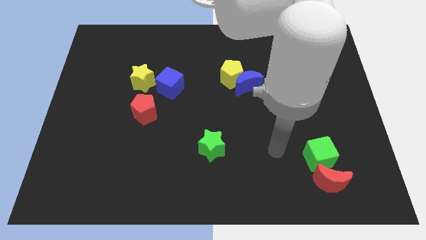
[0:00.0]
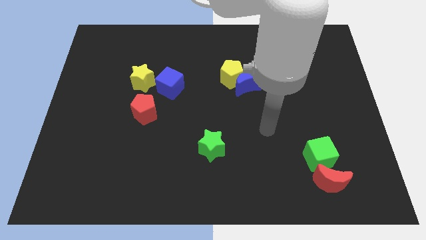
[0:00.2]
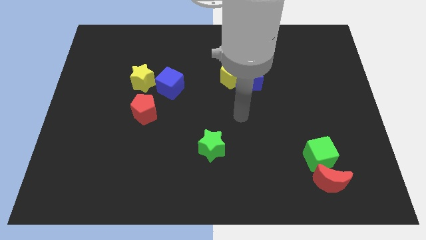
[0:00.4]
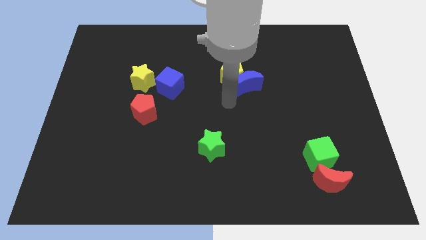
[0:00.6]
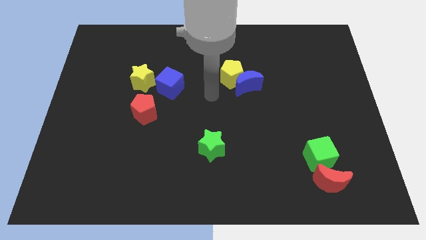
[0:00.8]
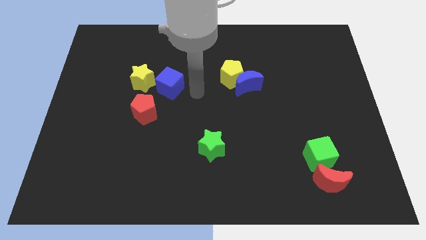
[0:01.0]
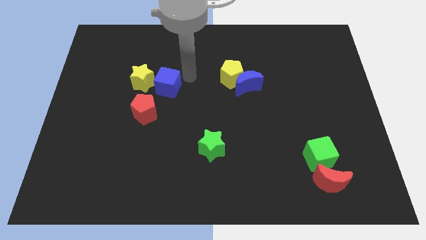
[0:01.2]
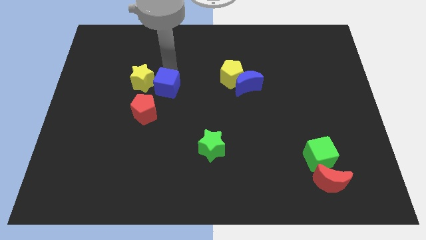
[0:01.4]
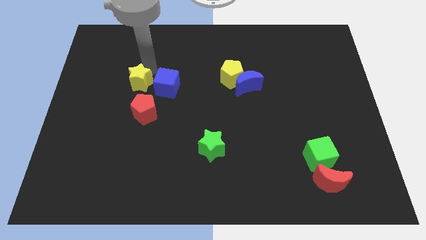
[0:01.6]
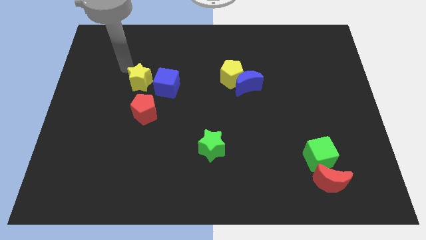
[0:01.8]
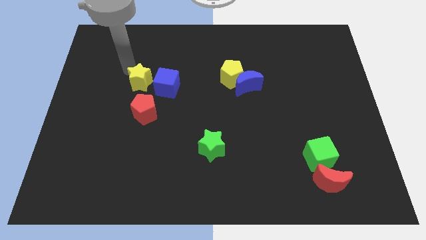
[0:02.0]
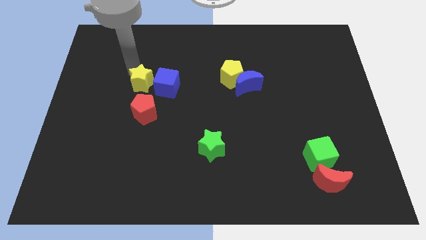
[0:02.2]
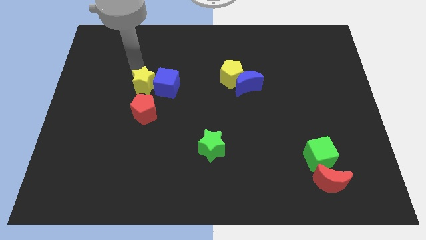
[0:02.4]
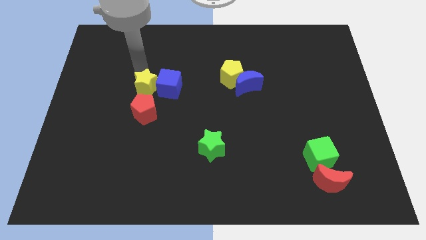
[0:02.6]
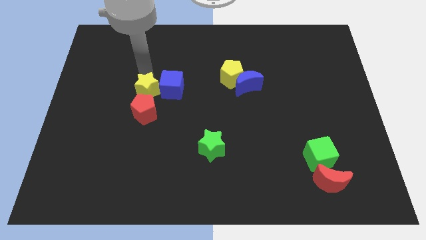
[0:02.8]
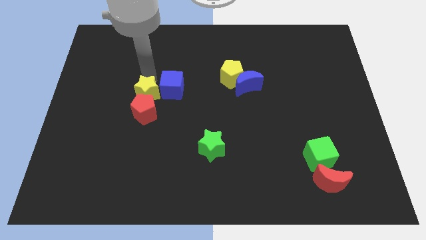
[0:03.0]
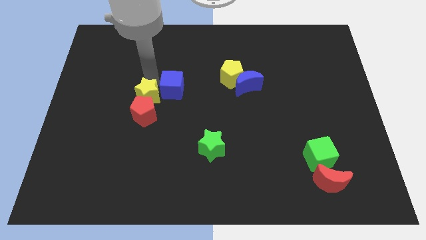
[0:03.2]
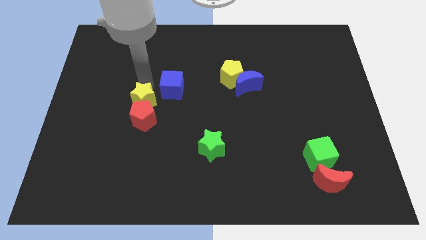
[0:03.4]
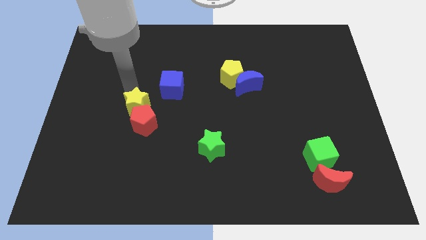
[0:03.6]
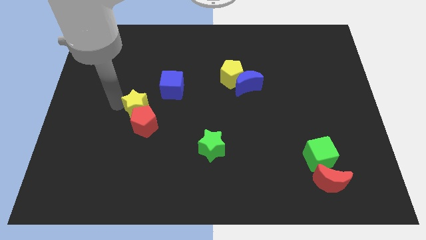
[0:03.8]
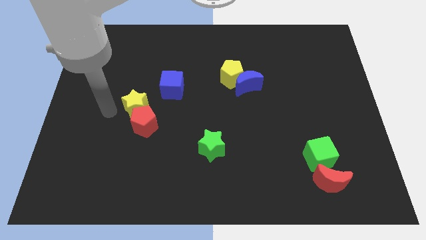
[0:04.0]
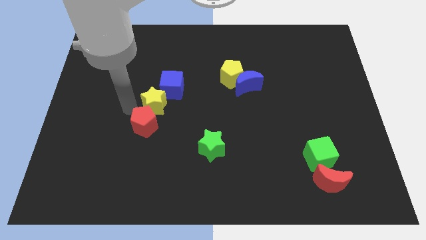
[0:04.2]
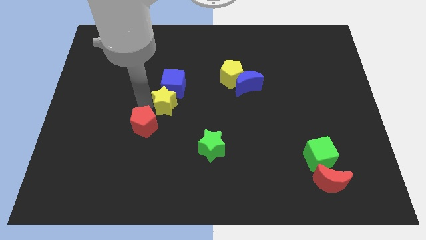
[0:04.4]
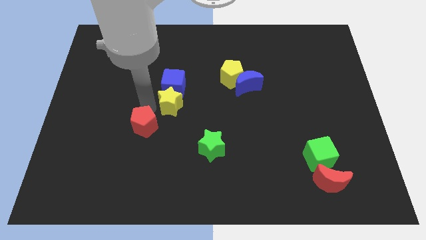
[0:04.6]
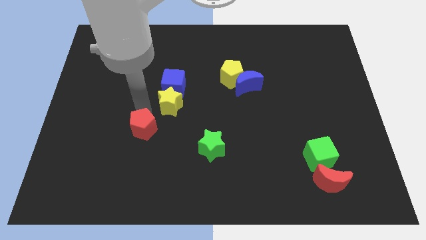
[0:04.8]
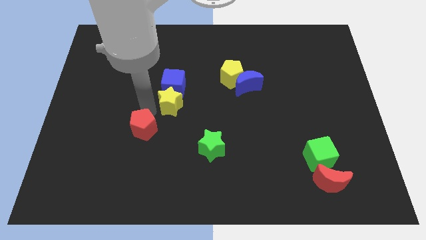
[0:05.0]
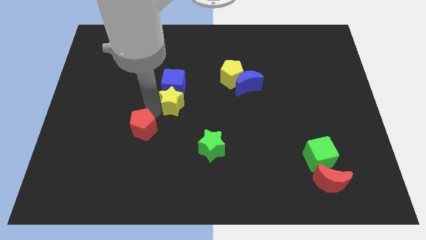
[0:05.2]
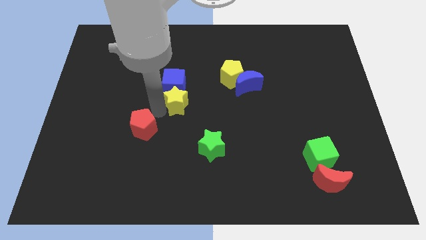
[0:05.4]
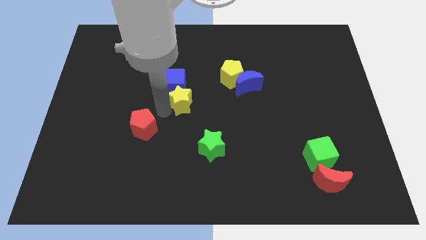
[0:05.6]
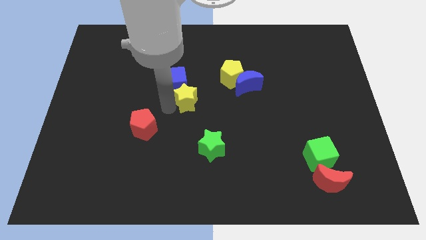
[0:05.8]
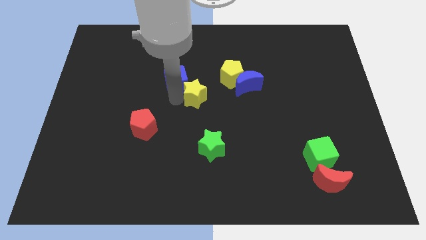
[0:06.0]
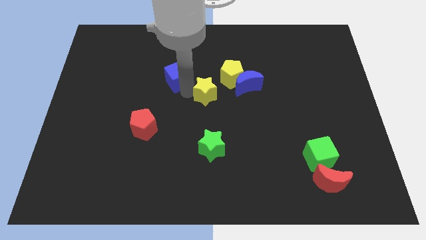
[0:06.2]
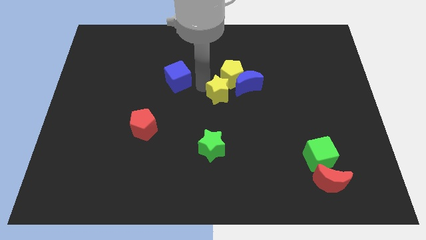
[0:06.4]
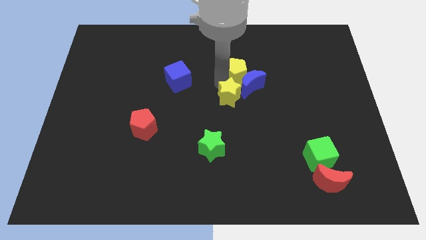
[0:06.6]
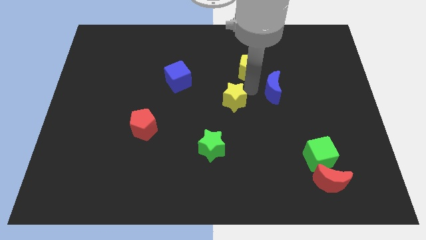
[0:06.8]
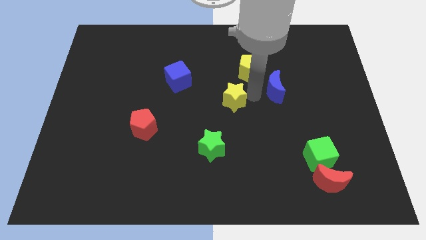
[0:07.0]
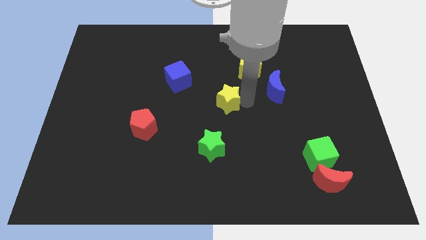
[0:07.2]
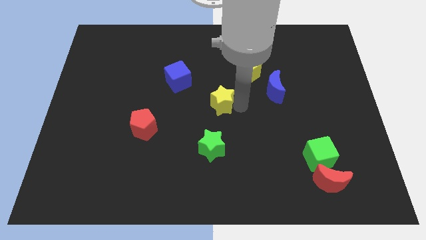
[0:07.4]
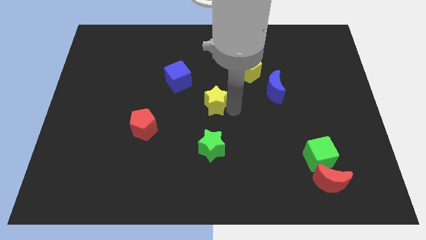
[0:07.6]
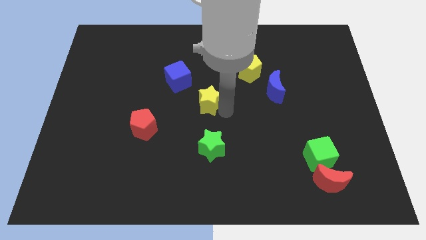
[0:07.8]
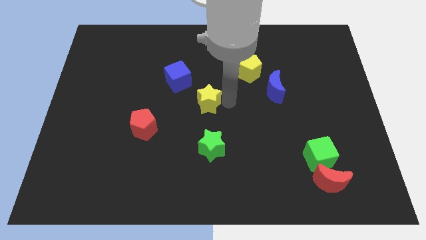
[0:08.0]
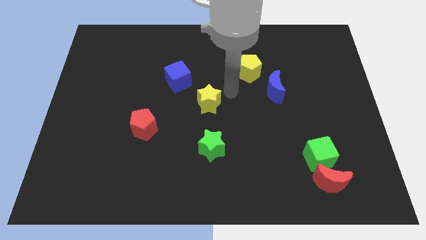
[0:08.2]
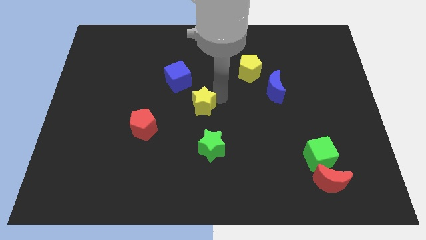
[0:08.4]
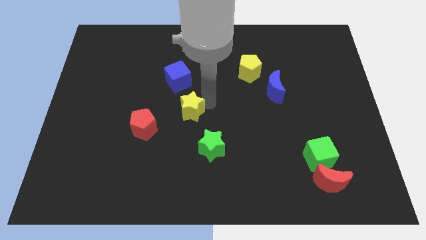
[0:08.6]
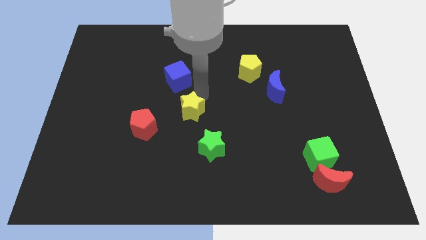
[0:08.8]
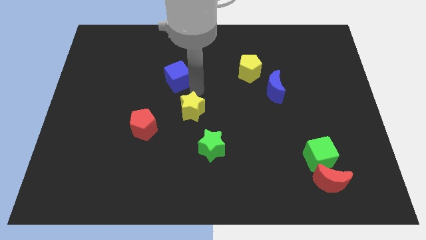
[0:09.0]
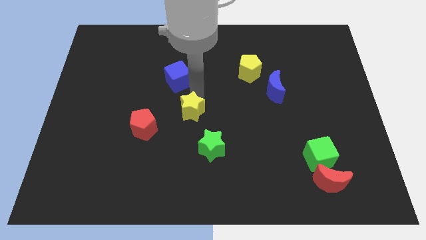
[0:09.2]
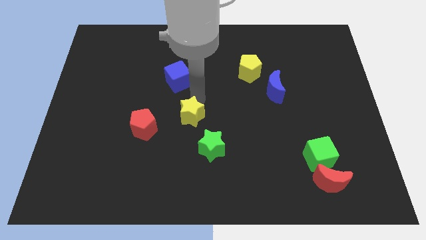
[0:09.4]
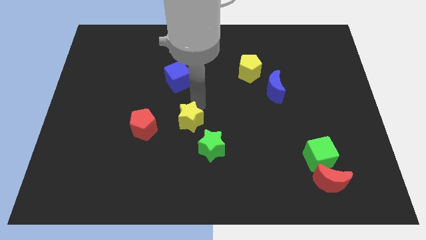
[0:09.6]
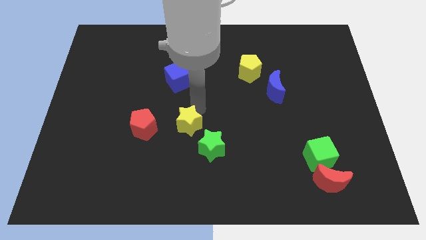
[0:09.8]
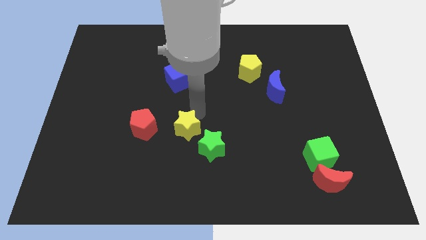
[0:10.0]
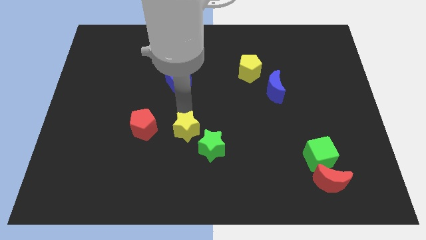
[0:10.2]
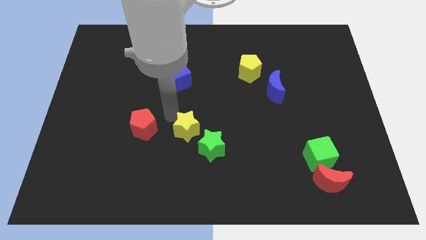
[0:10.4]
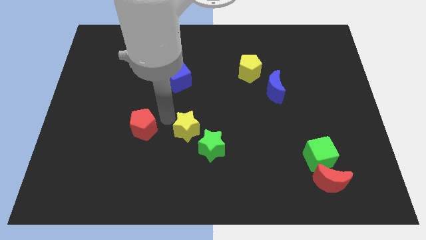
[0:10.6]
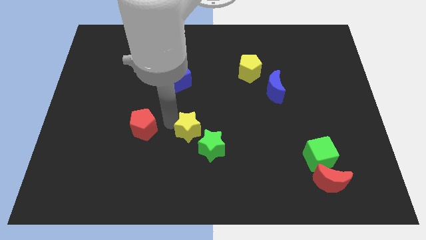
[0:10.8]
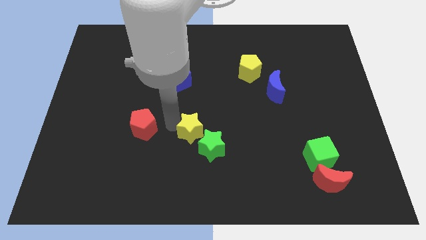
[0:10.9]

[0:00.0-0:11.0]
move the yellow star close to the green star
